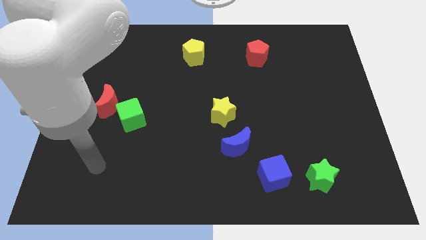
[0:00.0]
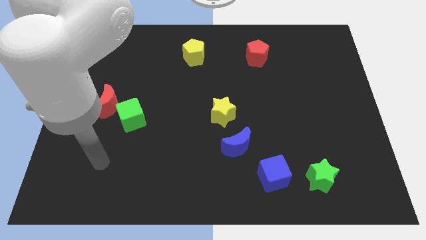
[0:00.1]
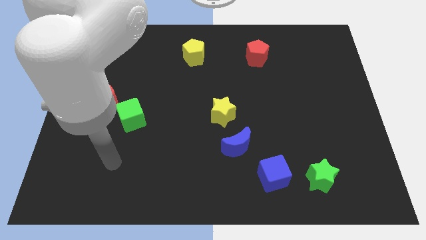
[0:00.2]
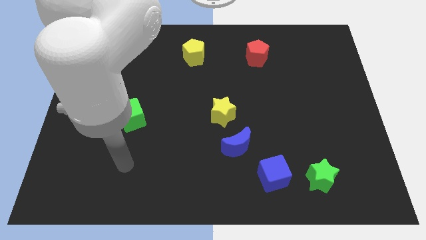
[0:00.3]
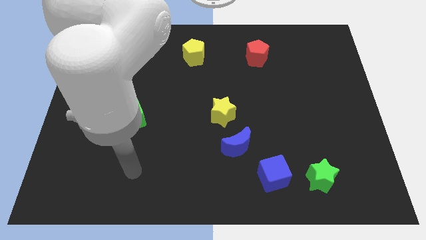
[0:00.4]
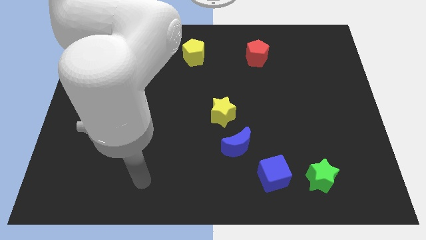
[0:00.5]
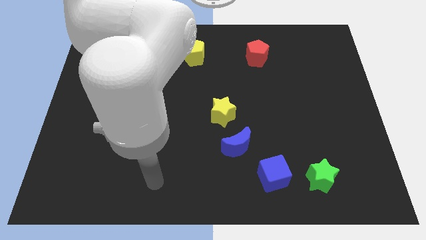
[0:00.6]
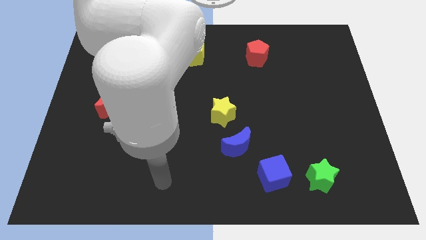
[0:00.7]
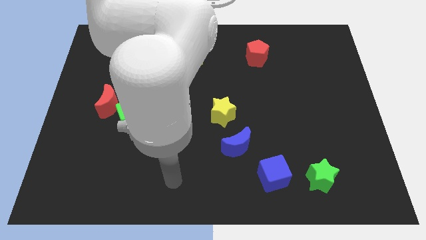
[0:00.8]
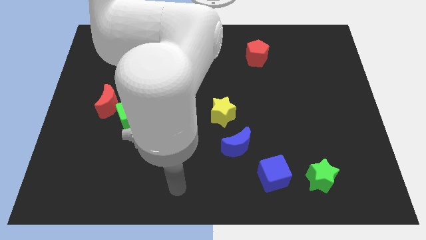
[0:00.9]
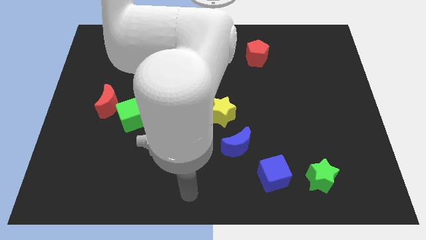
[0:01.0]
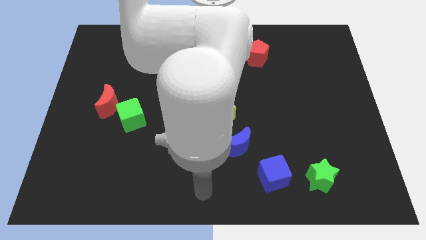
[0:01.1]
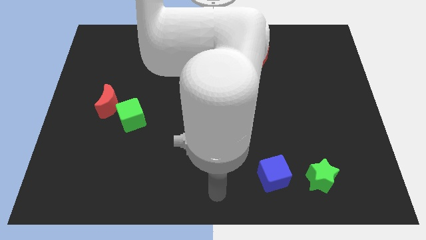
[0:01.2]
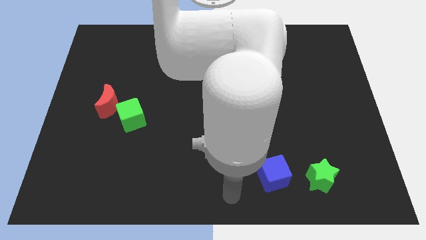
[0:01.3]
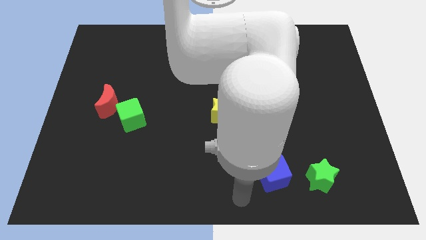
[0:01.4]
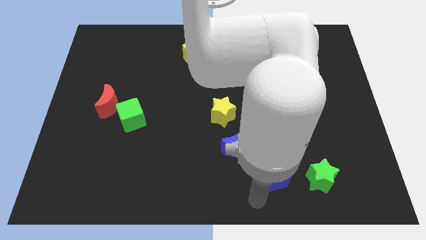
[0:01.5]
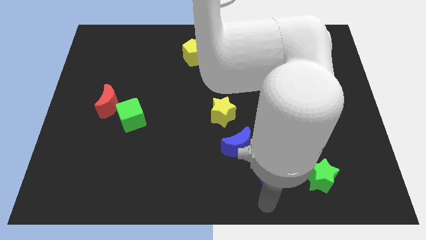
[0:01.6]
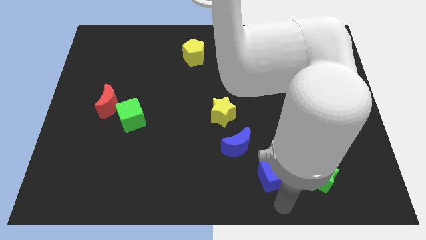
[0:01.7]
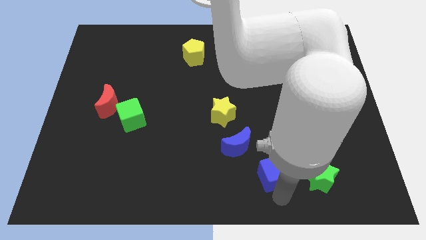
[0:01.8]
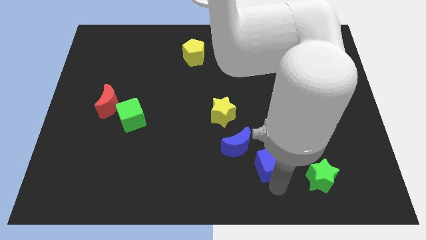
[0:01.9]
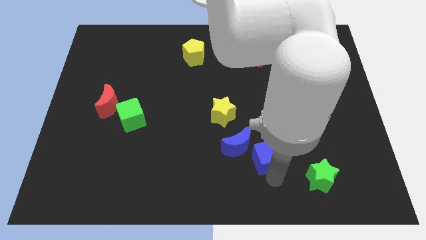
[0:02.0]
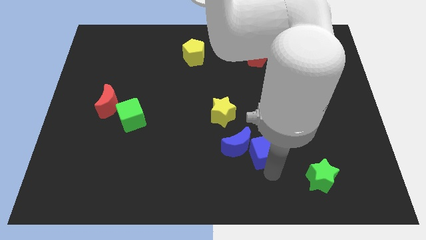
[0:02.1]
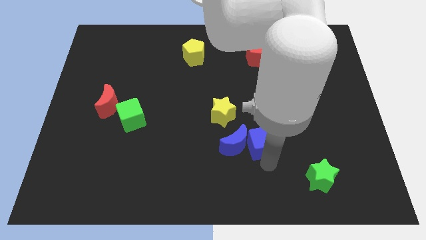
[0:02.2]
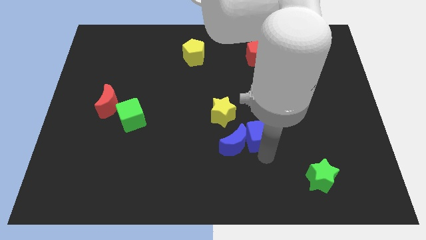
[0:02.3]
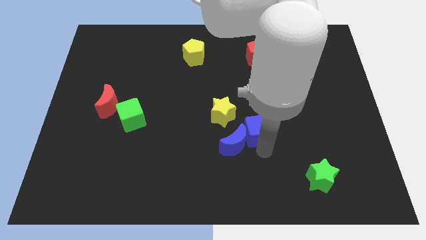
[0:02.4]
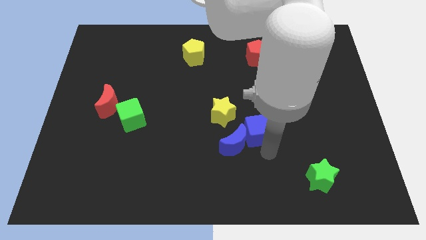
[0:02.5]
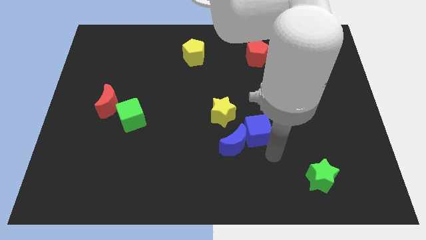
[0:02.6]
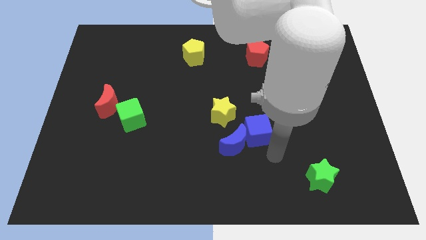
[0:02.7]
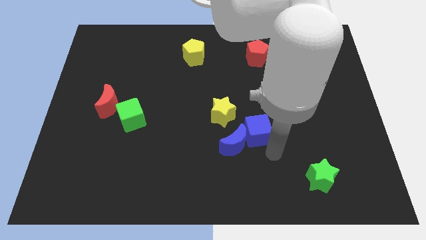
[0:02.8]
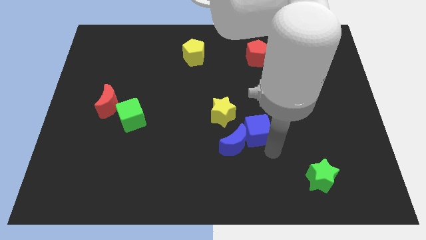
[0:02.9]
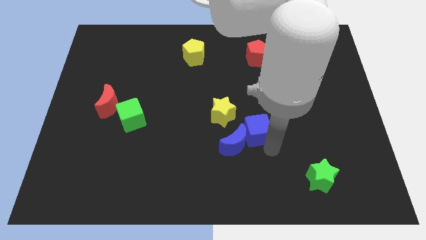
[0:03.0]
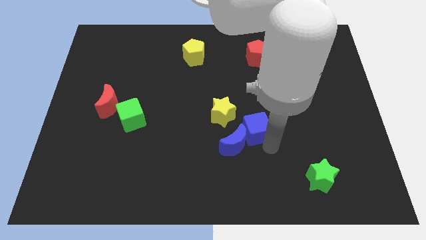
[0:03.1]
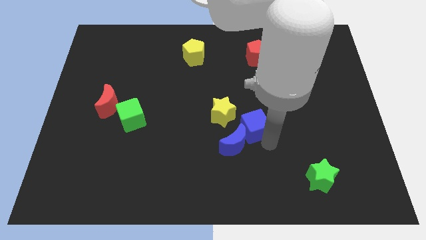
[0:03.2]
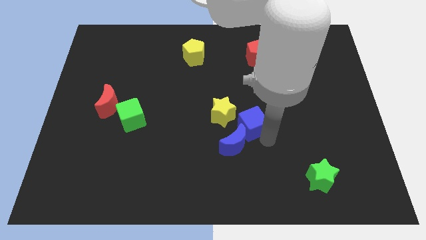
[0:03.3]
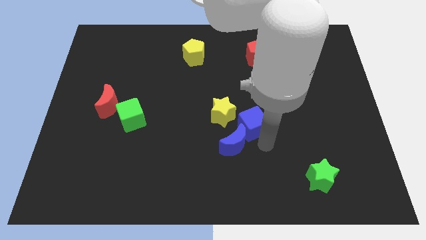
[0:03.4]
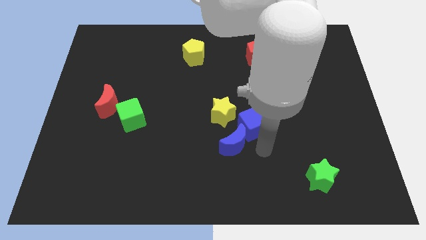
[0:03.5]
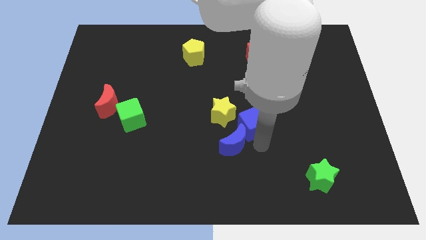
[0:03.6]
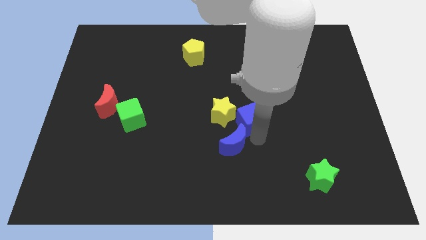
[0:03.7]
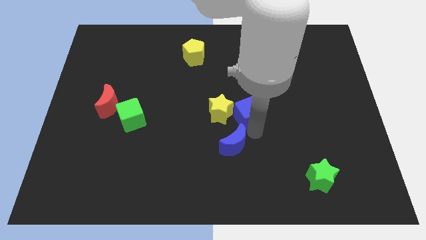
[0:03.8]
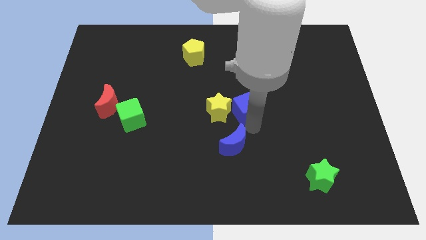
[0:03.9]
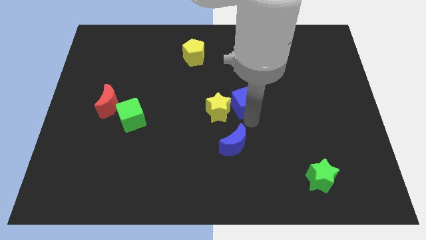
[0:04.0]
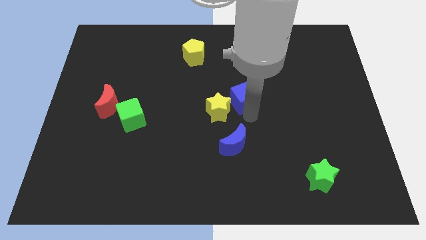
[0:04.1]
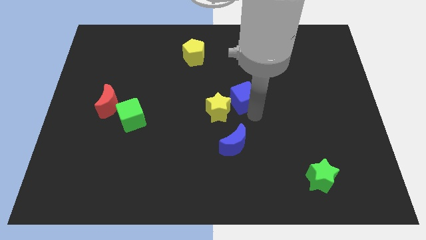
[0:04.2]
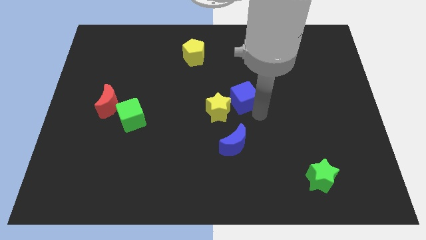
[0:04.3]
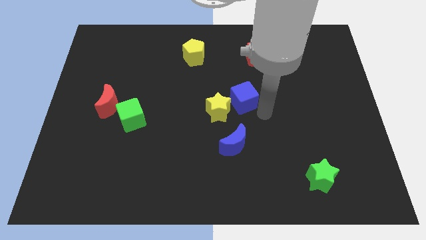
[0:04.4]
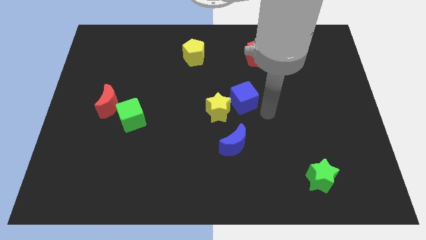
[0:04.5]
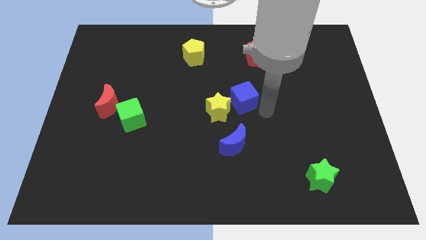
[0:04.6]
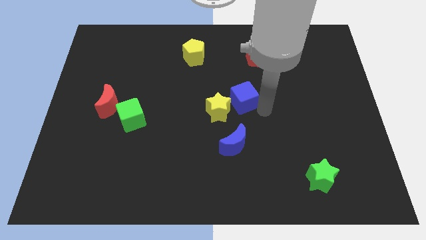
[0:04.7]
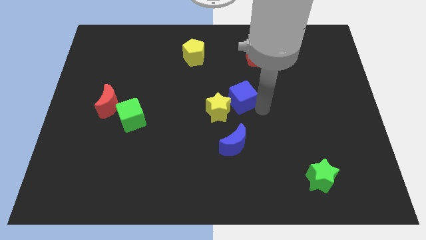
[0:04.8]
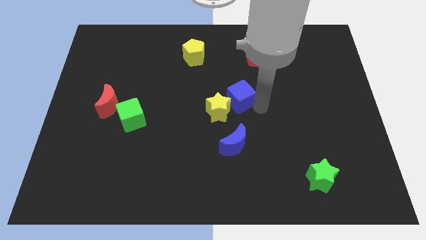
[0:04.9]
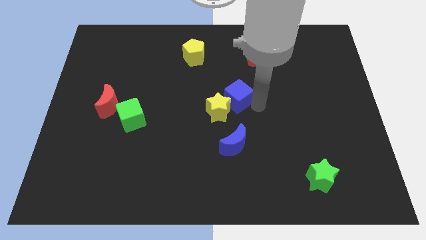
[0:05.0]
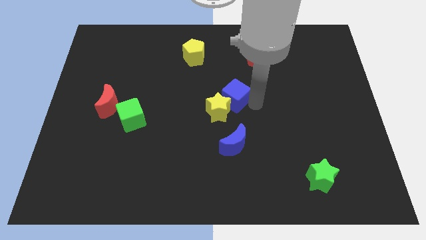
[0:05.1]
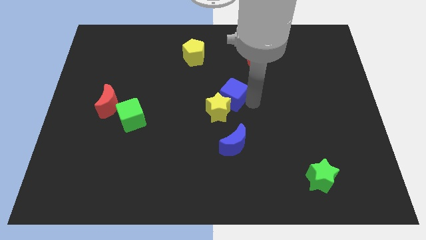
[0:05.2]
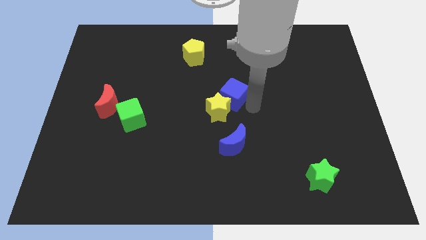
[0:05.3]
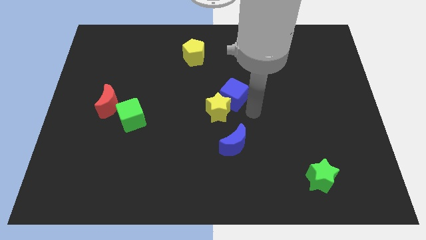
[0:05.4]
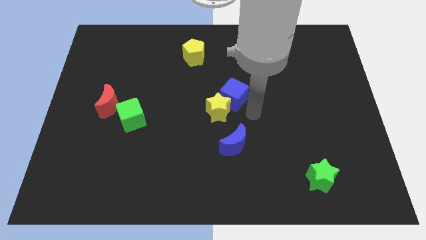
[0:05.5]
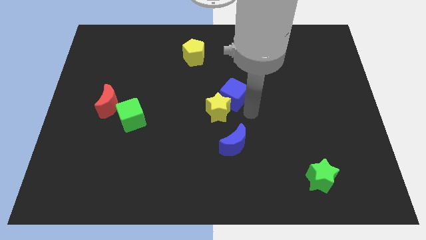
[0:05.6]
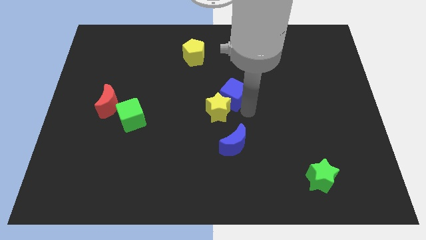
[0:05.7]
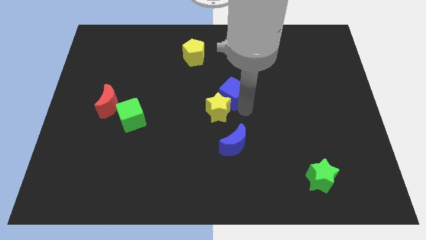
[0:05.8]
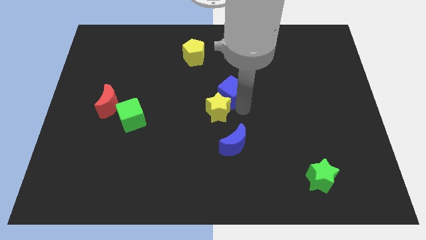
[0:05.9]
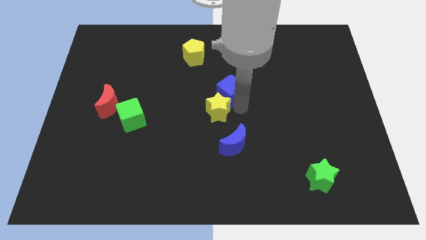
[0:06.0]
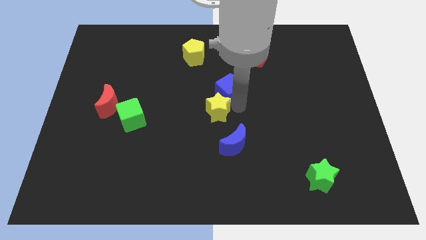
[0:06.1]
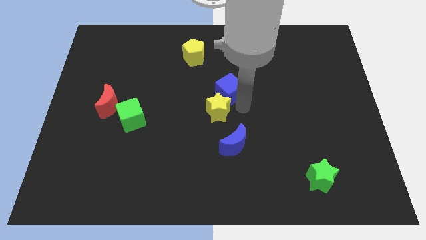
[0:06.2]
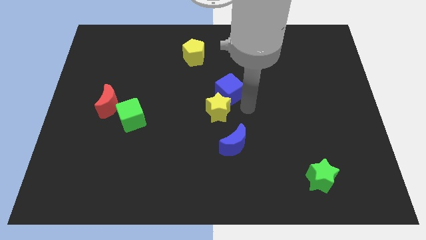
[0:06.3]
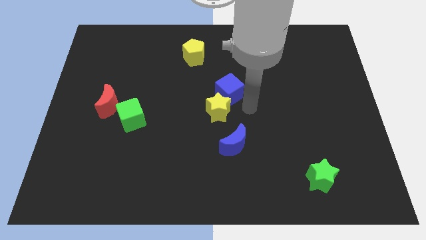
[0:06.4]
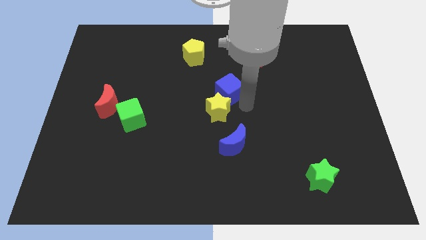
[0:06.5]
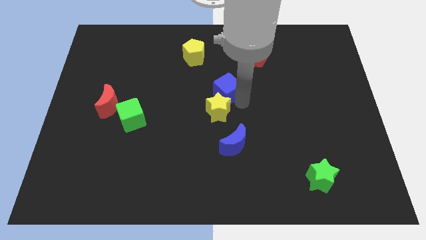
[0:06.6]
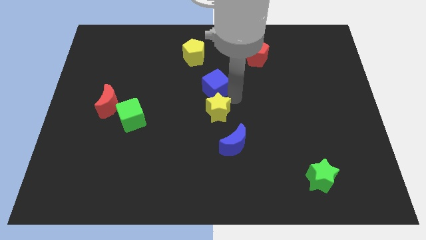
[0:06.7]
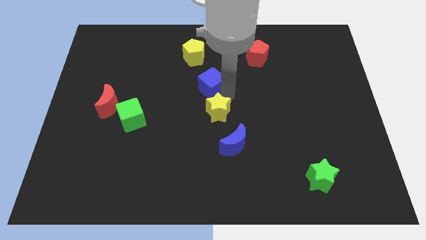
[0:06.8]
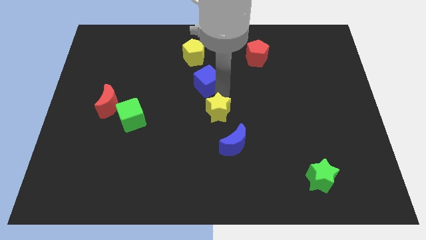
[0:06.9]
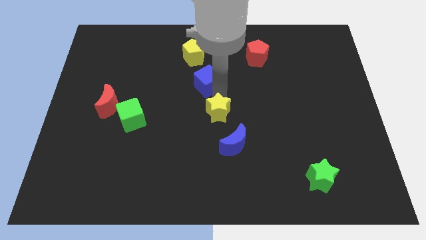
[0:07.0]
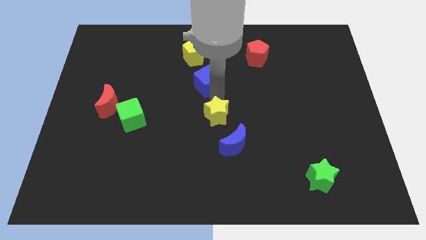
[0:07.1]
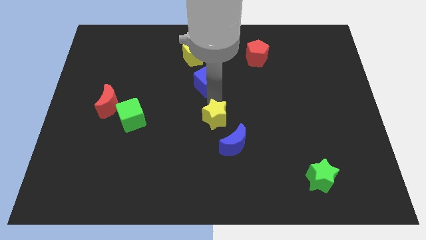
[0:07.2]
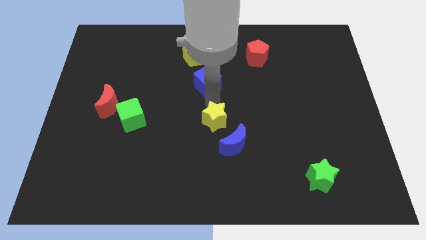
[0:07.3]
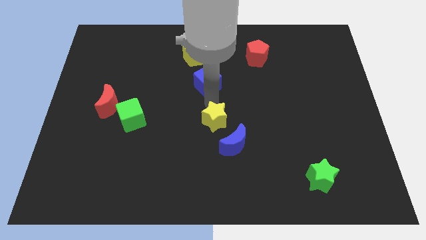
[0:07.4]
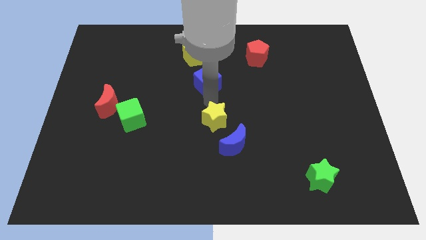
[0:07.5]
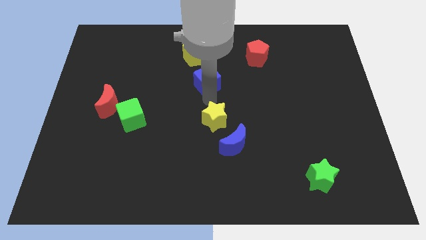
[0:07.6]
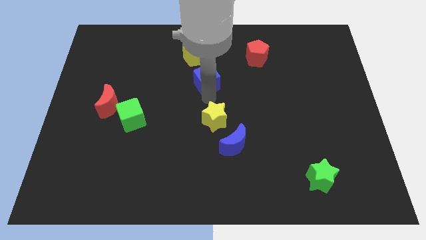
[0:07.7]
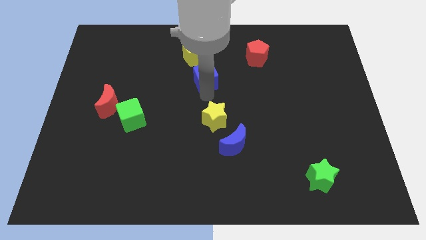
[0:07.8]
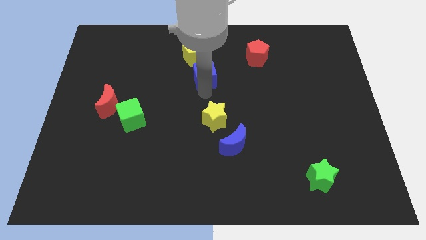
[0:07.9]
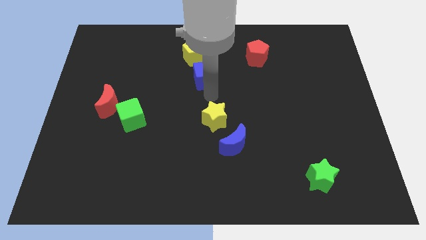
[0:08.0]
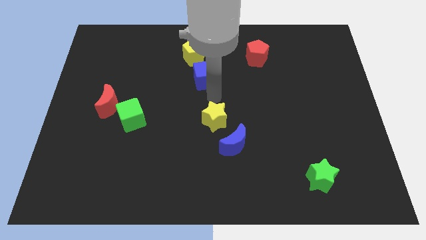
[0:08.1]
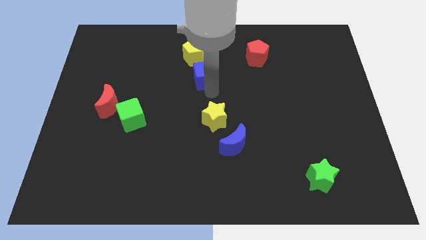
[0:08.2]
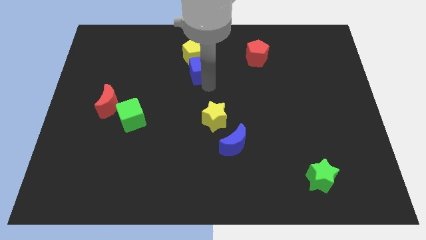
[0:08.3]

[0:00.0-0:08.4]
move the blue cube next to the yellow pentagon
